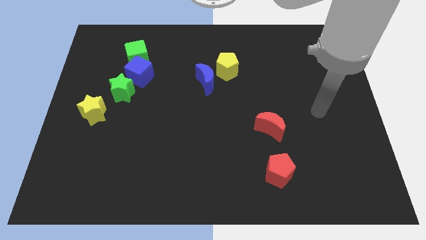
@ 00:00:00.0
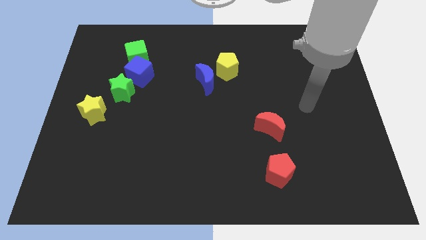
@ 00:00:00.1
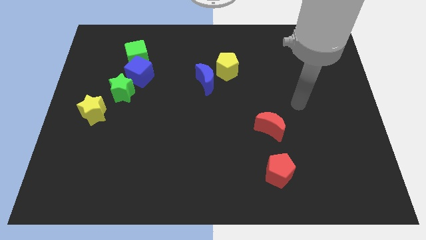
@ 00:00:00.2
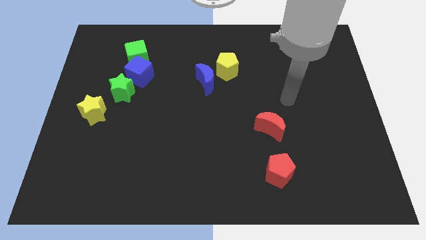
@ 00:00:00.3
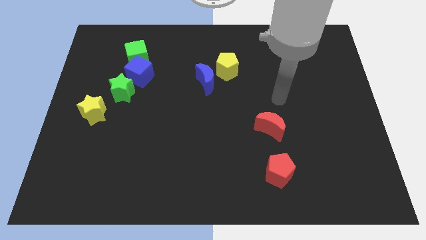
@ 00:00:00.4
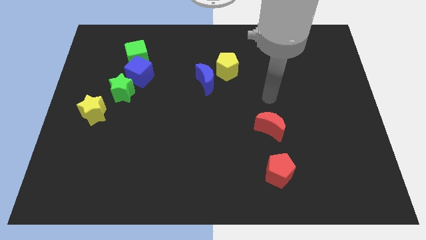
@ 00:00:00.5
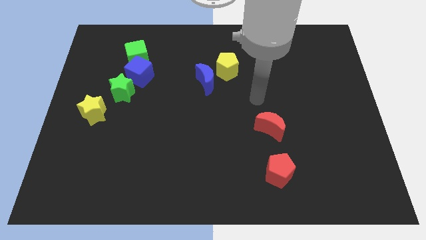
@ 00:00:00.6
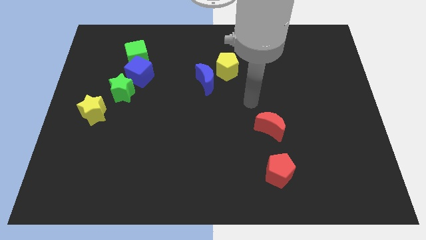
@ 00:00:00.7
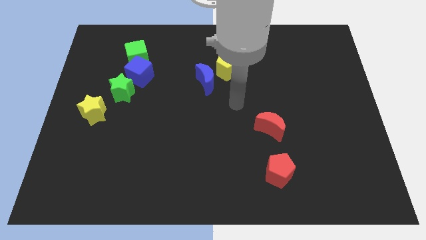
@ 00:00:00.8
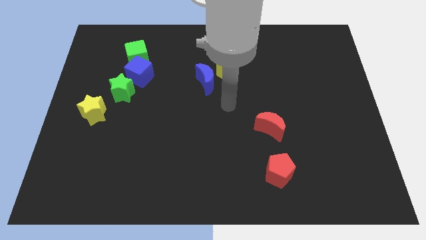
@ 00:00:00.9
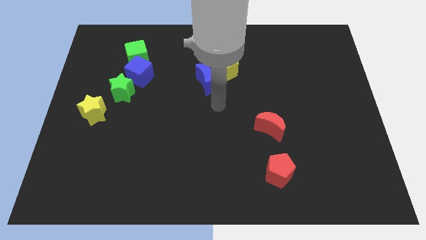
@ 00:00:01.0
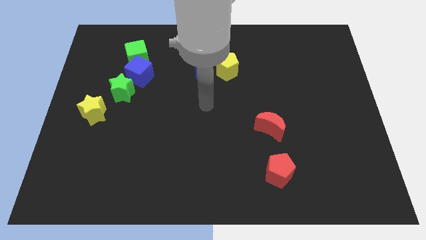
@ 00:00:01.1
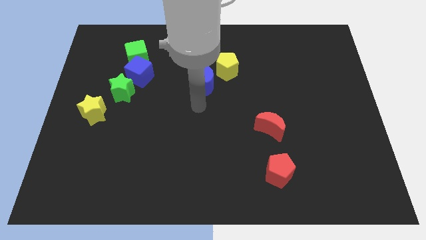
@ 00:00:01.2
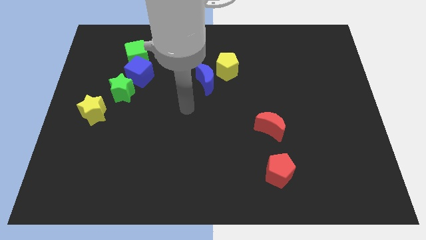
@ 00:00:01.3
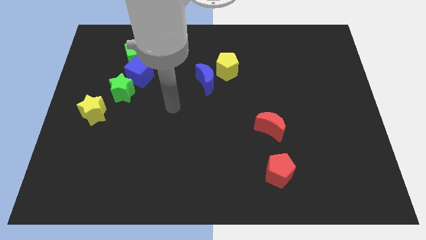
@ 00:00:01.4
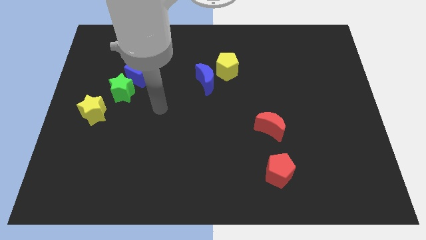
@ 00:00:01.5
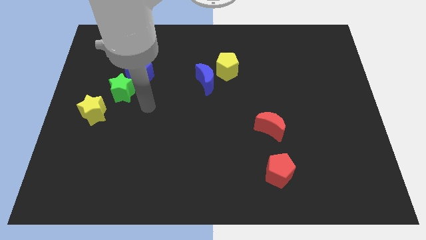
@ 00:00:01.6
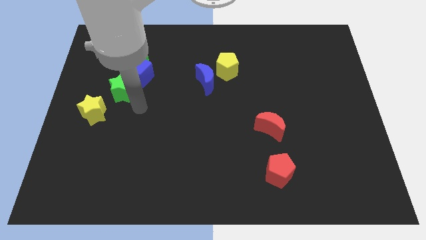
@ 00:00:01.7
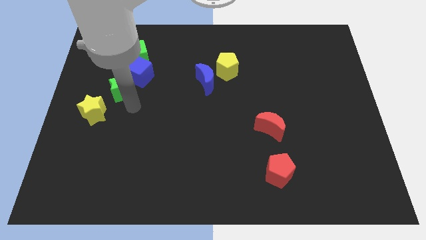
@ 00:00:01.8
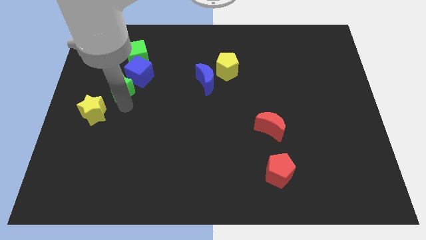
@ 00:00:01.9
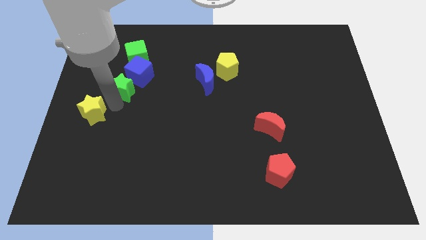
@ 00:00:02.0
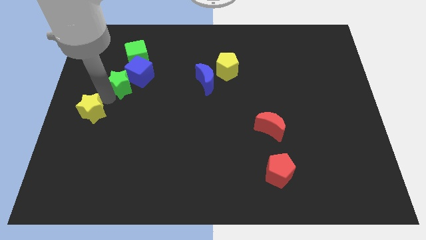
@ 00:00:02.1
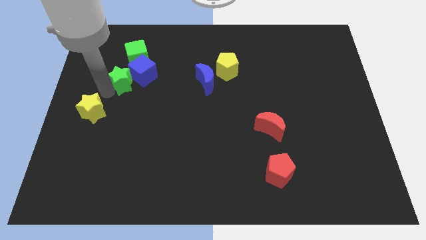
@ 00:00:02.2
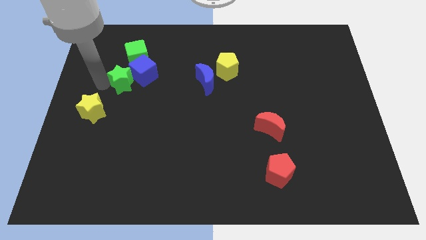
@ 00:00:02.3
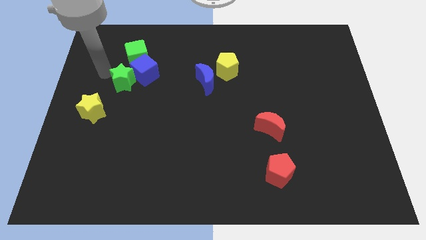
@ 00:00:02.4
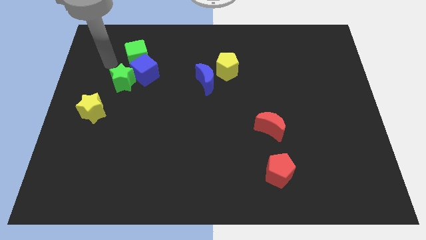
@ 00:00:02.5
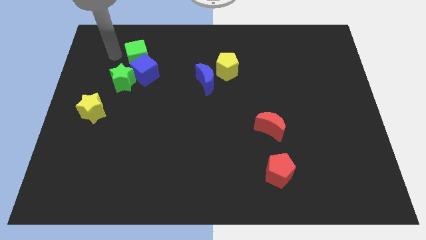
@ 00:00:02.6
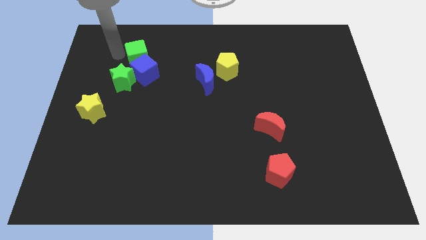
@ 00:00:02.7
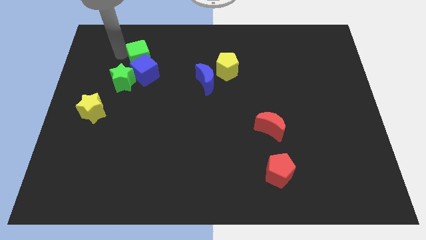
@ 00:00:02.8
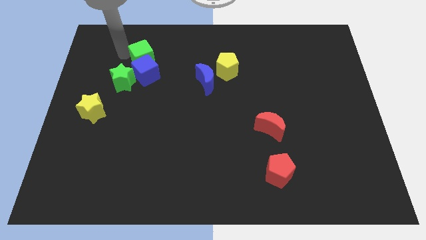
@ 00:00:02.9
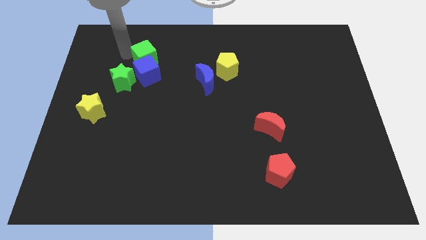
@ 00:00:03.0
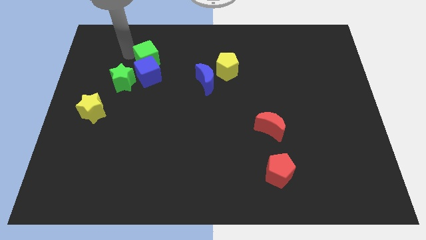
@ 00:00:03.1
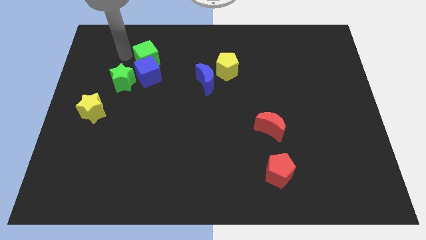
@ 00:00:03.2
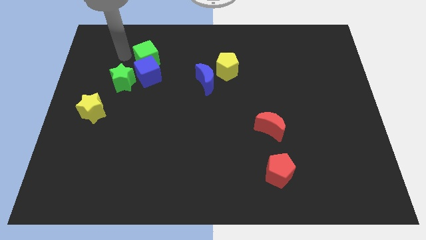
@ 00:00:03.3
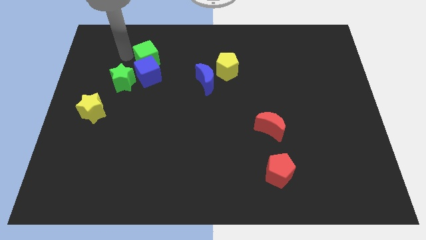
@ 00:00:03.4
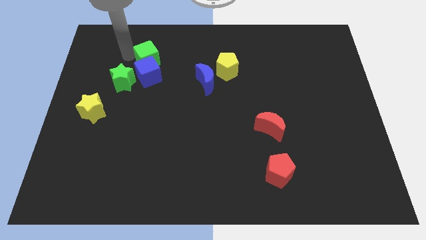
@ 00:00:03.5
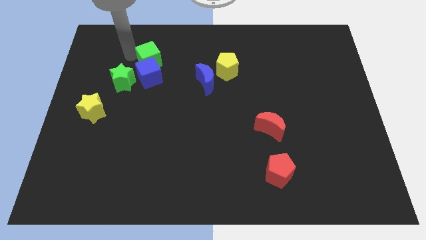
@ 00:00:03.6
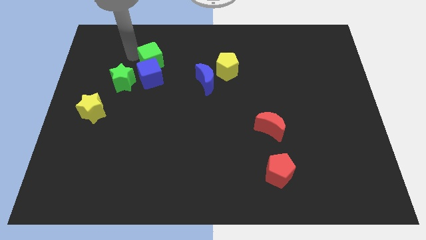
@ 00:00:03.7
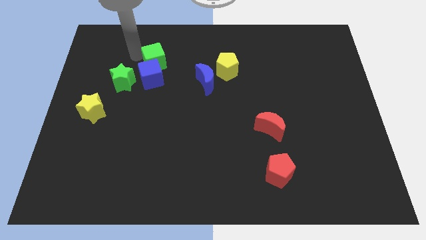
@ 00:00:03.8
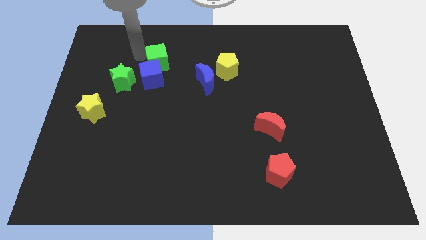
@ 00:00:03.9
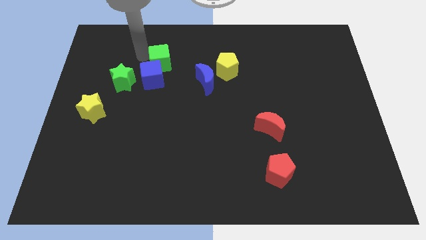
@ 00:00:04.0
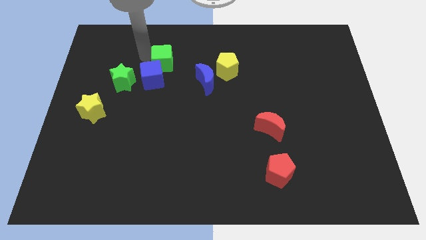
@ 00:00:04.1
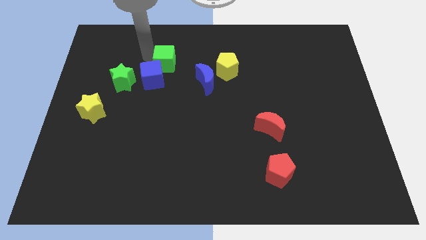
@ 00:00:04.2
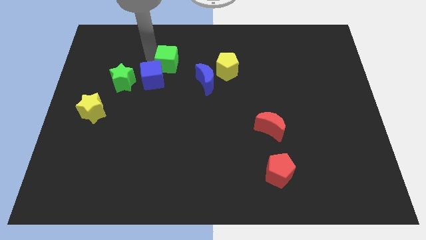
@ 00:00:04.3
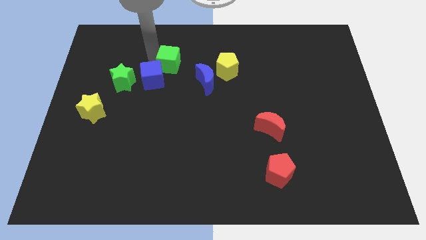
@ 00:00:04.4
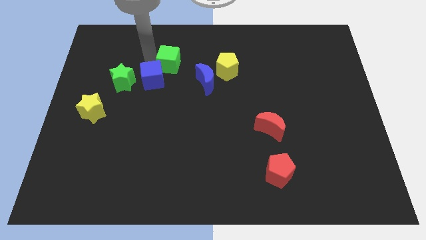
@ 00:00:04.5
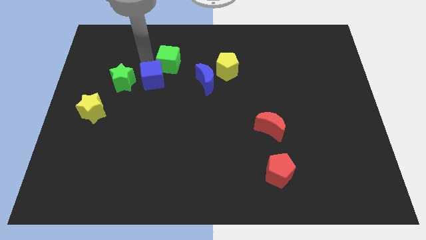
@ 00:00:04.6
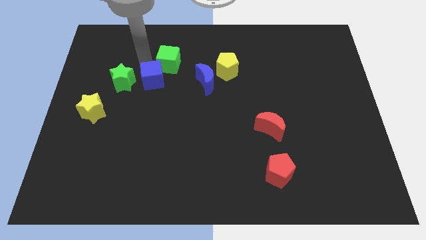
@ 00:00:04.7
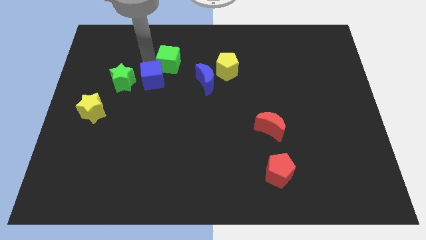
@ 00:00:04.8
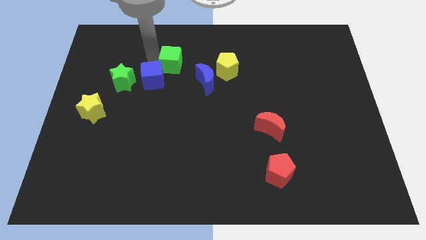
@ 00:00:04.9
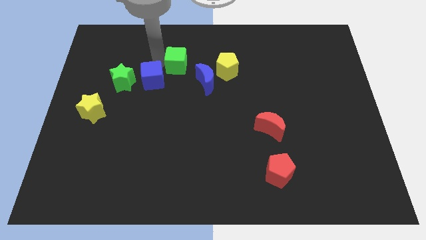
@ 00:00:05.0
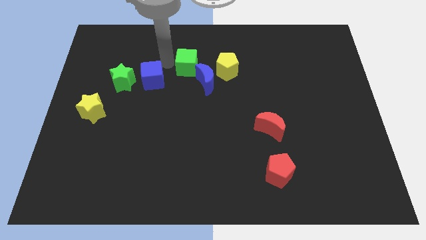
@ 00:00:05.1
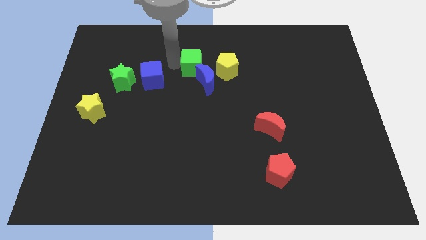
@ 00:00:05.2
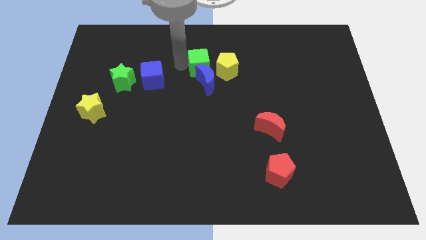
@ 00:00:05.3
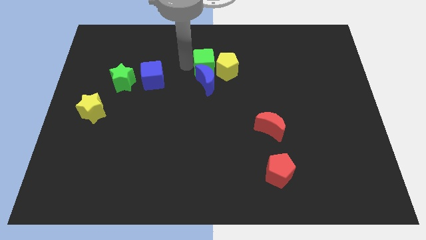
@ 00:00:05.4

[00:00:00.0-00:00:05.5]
put the green cube towards the yellow pentagon
